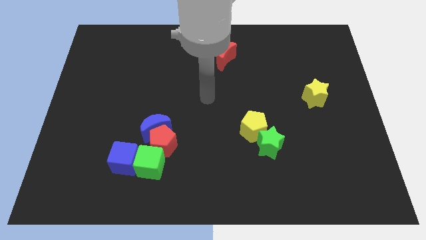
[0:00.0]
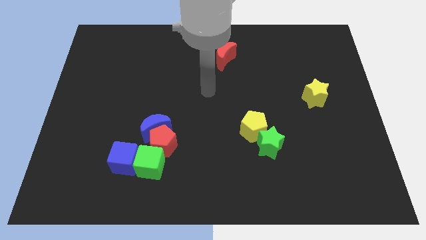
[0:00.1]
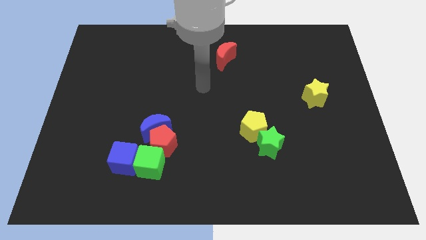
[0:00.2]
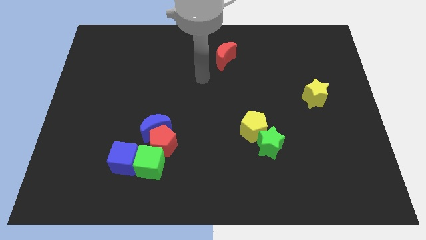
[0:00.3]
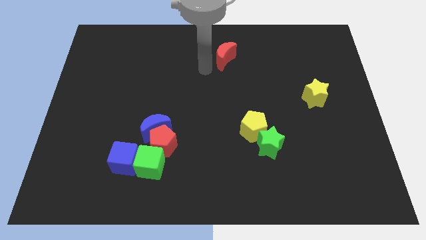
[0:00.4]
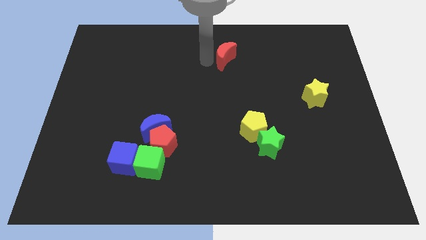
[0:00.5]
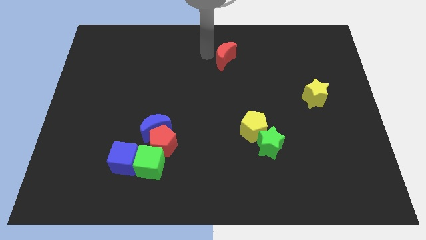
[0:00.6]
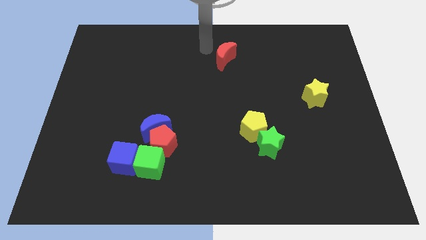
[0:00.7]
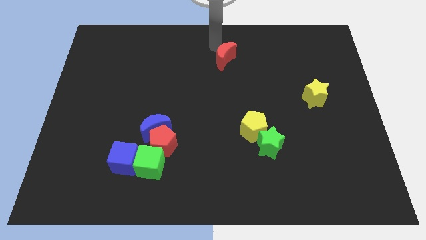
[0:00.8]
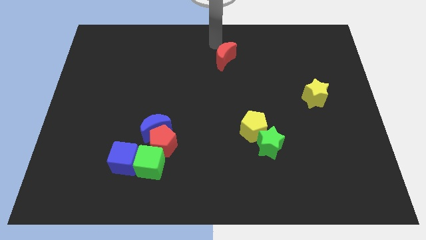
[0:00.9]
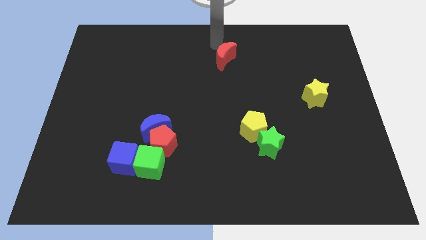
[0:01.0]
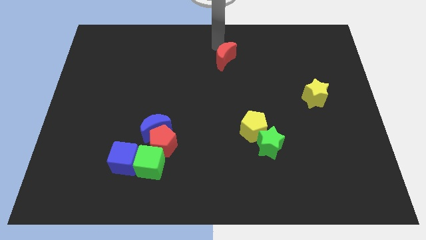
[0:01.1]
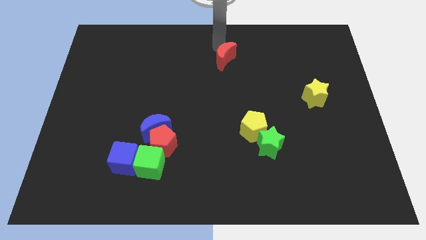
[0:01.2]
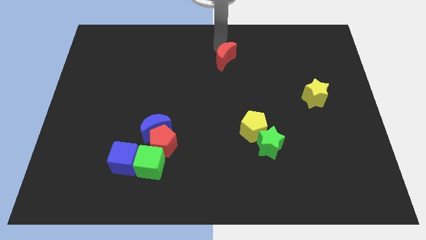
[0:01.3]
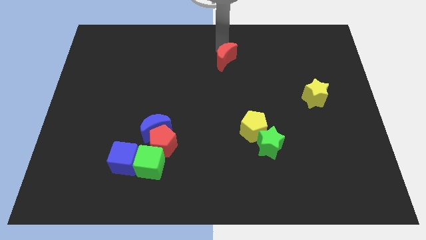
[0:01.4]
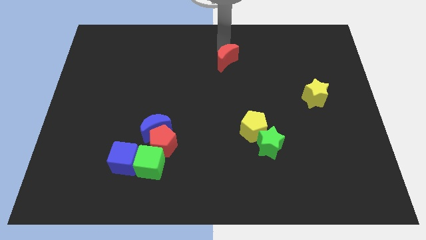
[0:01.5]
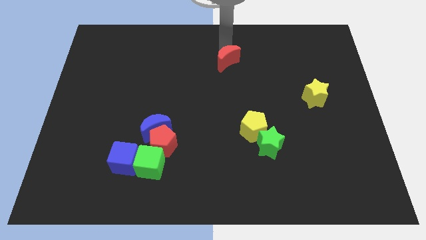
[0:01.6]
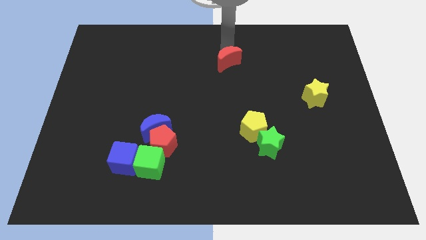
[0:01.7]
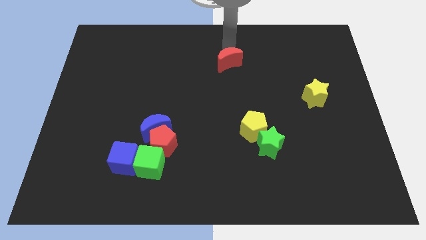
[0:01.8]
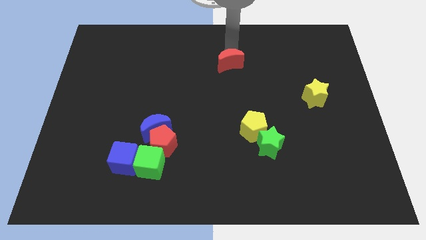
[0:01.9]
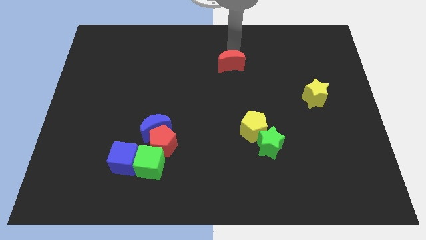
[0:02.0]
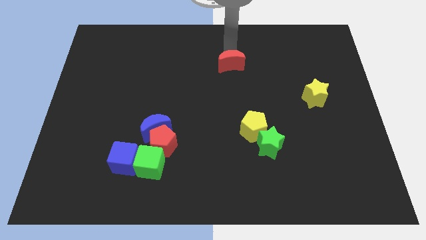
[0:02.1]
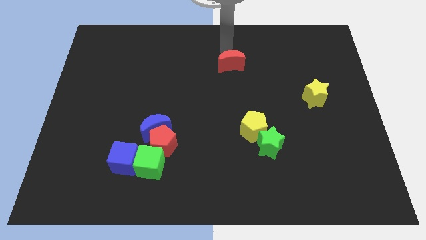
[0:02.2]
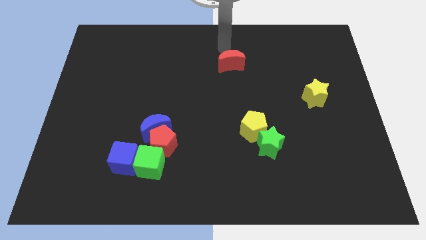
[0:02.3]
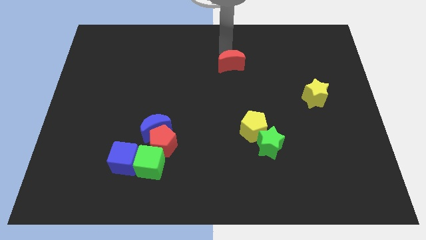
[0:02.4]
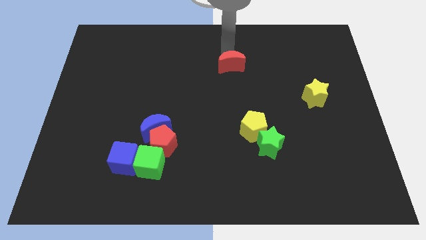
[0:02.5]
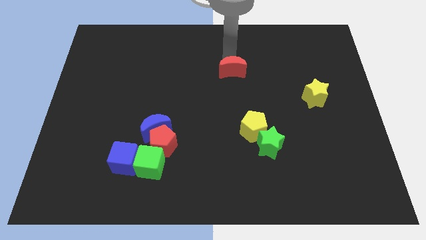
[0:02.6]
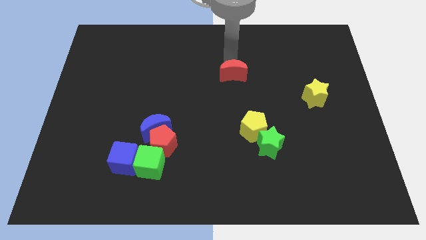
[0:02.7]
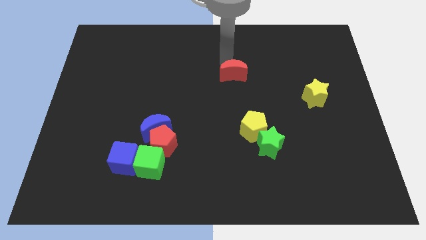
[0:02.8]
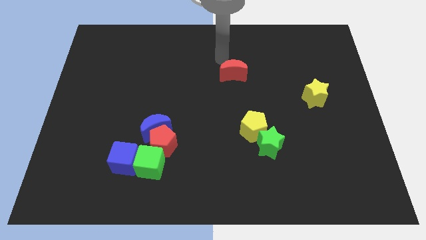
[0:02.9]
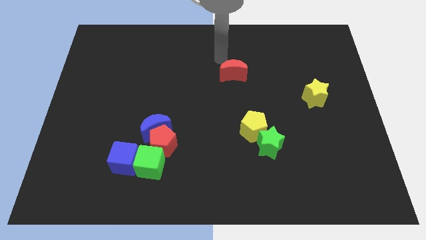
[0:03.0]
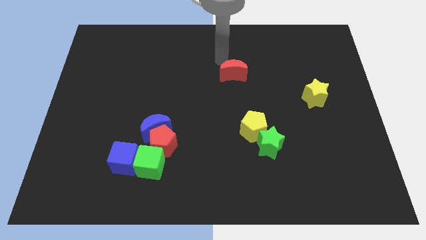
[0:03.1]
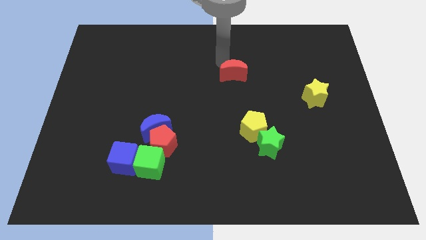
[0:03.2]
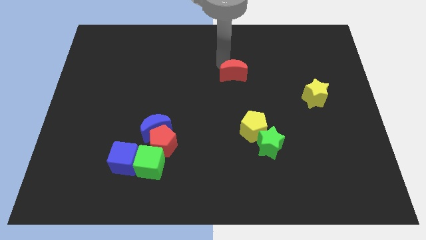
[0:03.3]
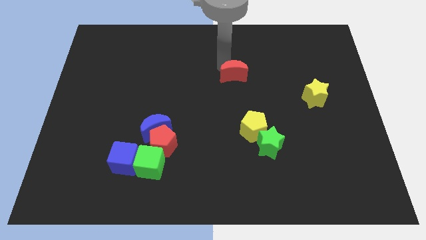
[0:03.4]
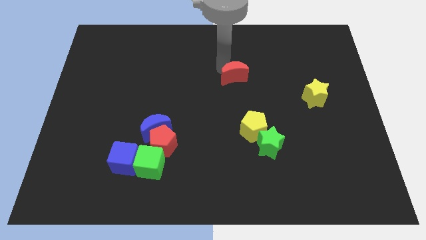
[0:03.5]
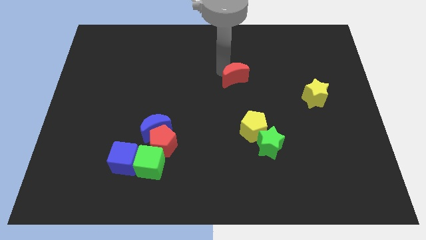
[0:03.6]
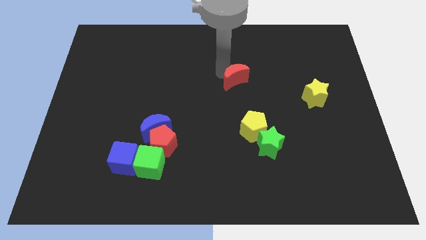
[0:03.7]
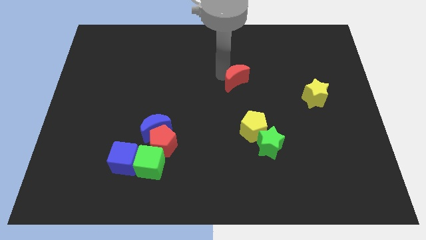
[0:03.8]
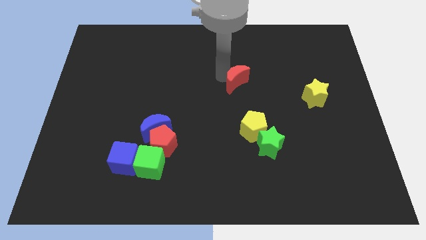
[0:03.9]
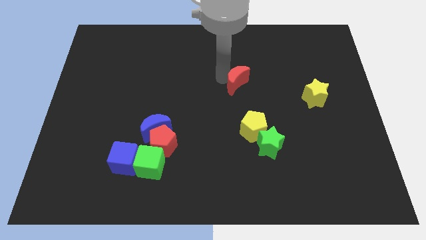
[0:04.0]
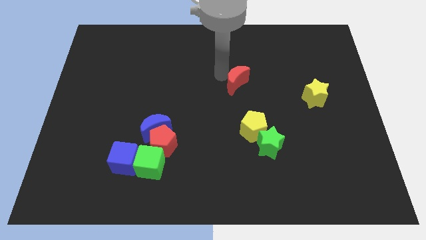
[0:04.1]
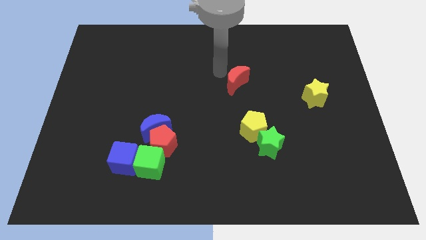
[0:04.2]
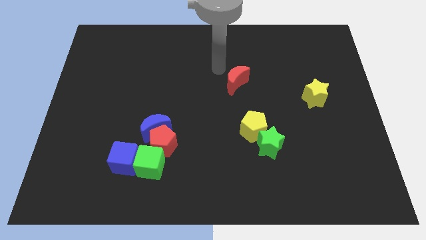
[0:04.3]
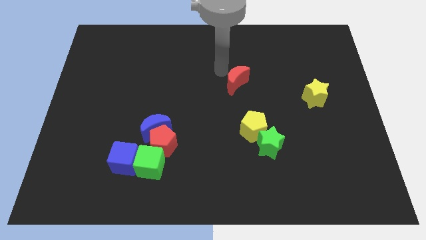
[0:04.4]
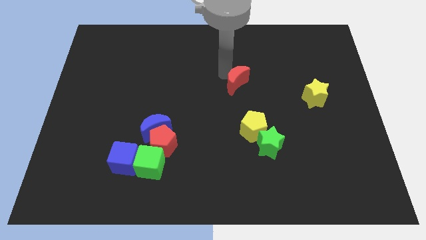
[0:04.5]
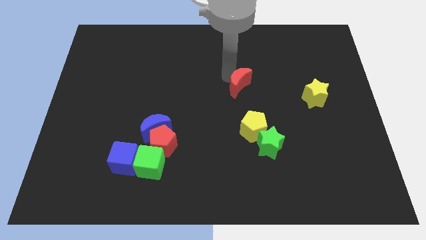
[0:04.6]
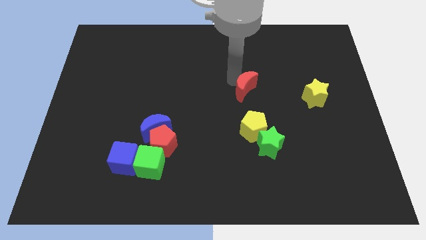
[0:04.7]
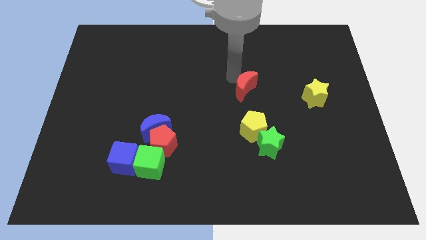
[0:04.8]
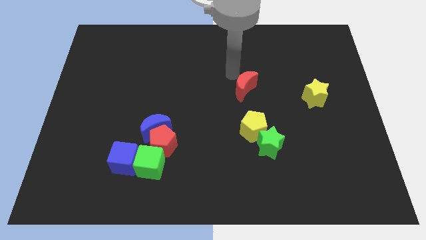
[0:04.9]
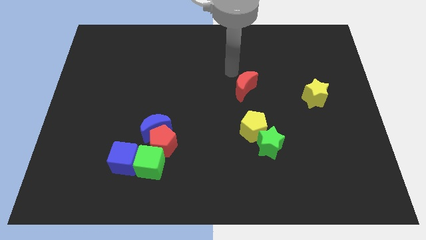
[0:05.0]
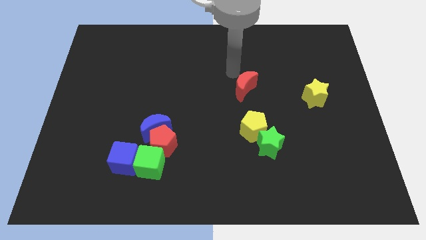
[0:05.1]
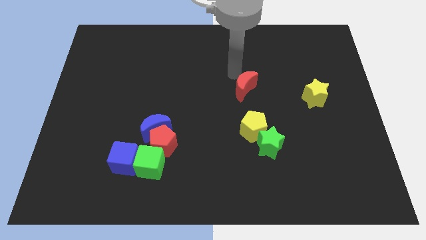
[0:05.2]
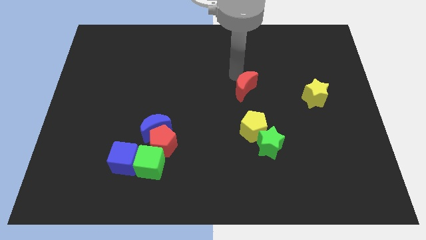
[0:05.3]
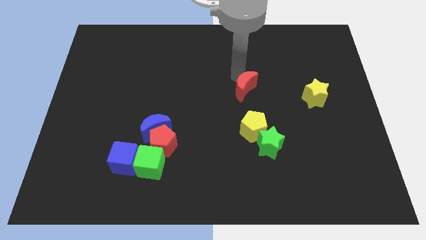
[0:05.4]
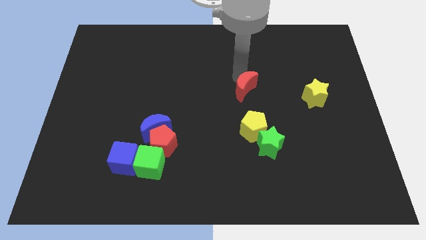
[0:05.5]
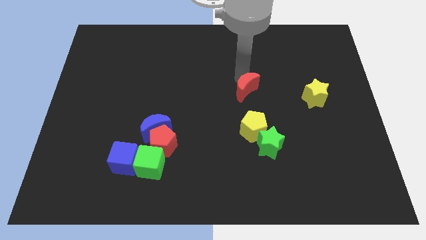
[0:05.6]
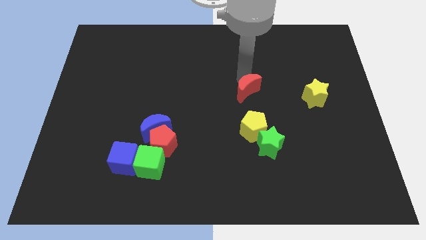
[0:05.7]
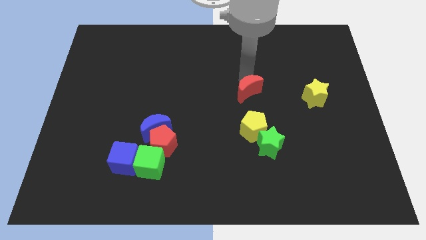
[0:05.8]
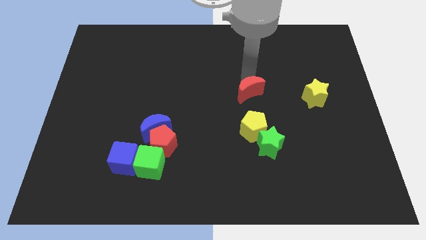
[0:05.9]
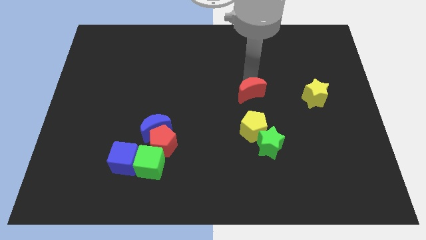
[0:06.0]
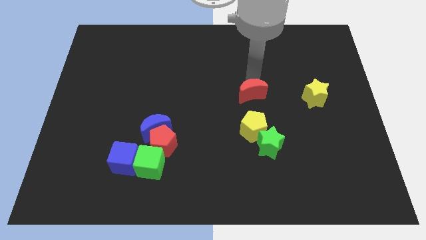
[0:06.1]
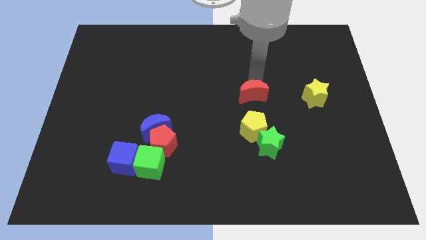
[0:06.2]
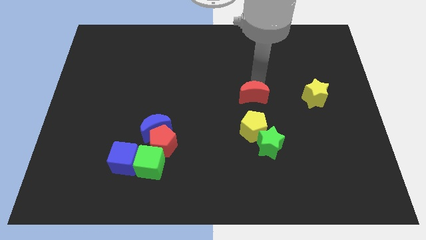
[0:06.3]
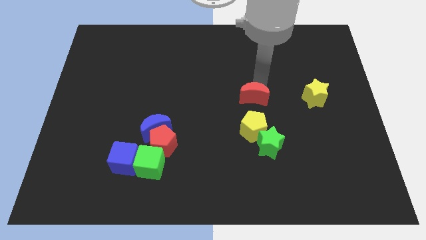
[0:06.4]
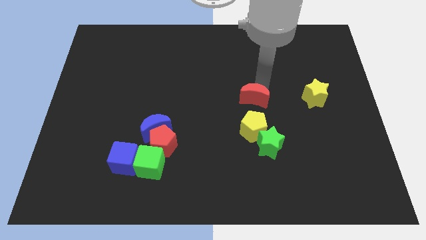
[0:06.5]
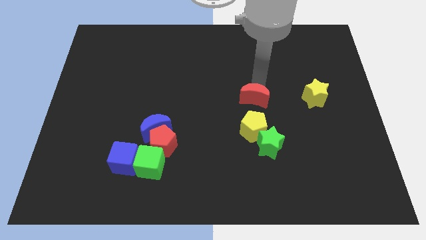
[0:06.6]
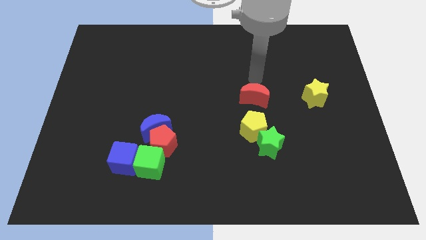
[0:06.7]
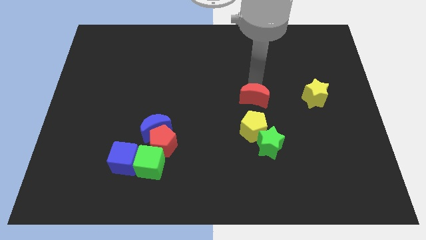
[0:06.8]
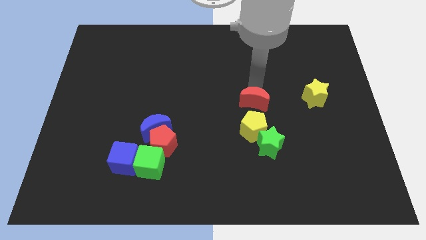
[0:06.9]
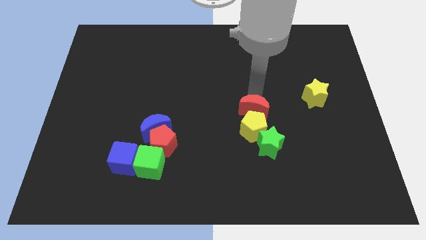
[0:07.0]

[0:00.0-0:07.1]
move the red moon towards the yellow pentagon

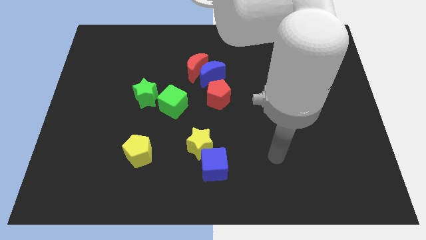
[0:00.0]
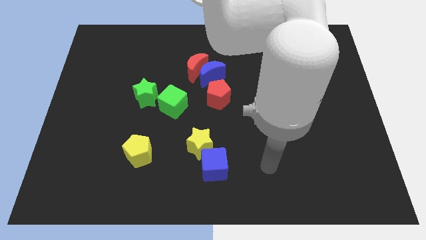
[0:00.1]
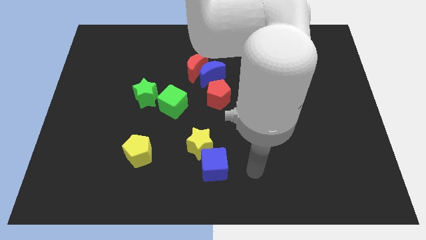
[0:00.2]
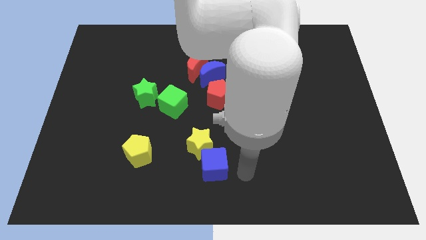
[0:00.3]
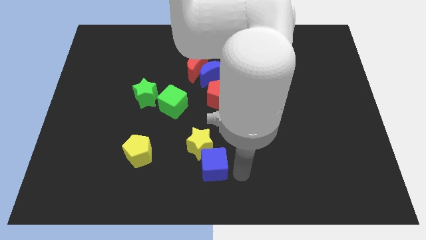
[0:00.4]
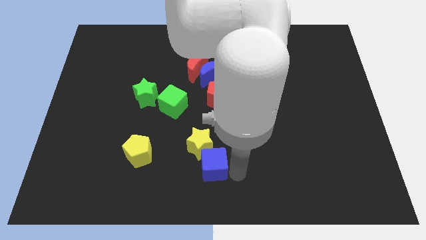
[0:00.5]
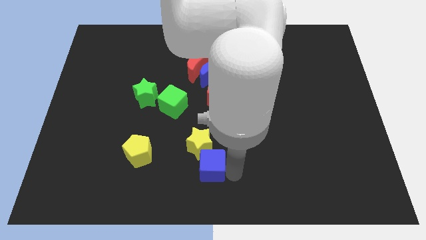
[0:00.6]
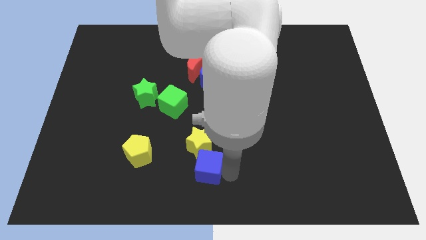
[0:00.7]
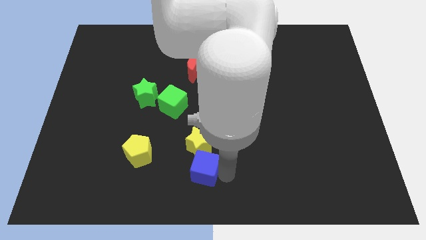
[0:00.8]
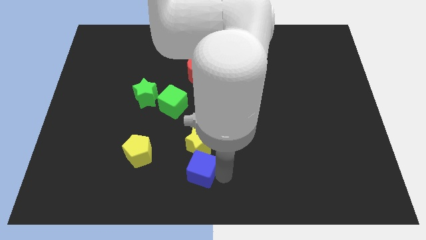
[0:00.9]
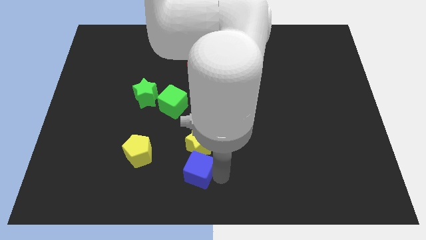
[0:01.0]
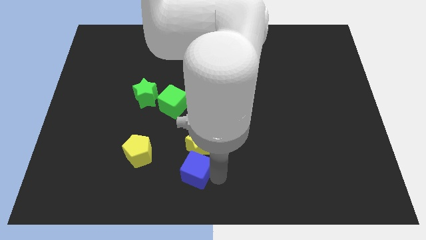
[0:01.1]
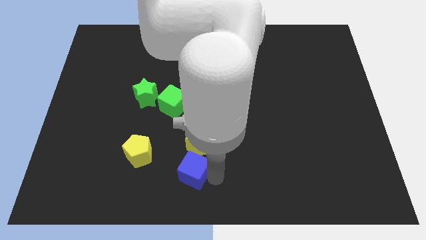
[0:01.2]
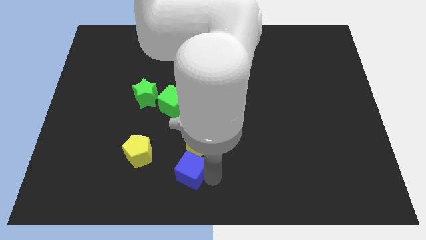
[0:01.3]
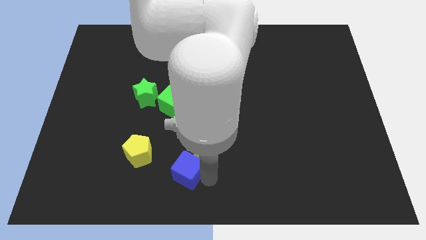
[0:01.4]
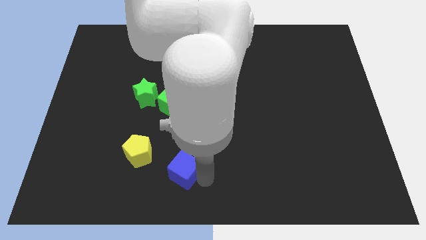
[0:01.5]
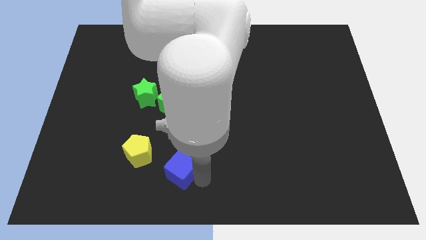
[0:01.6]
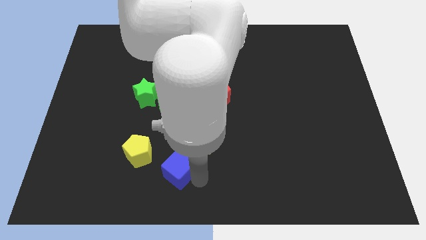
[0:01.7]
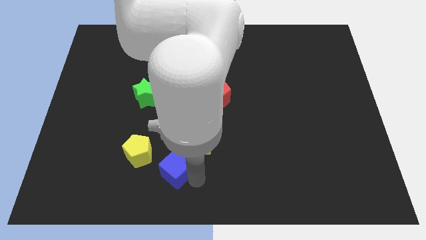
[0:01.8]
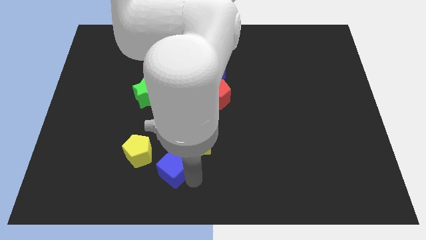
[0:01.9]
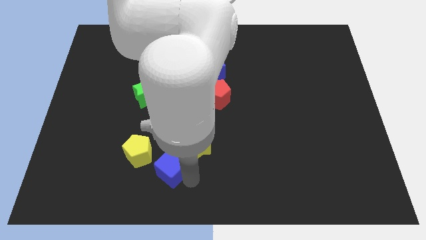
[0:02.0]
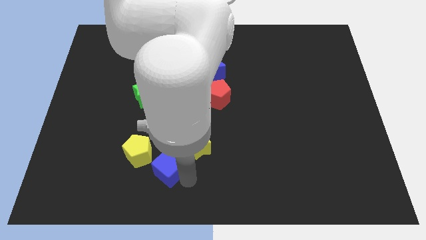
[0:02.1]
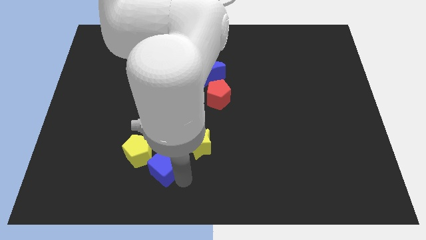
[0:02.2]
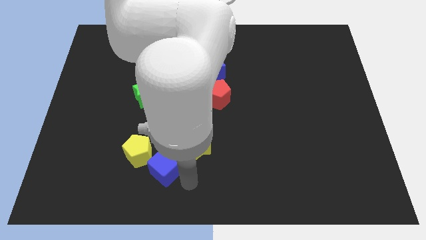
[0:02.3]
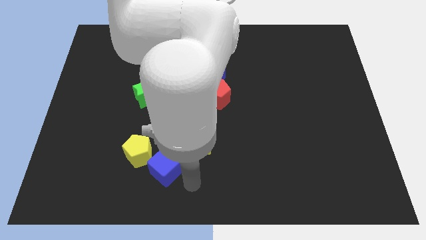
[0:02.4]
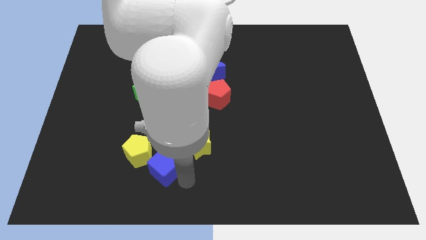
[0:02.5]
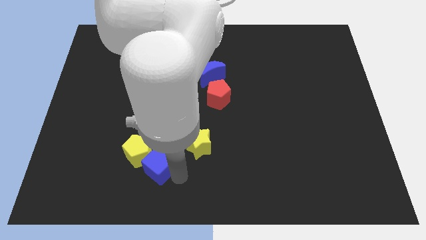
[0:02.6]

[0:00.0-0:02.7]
slide the blue cube next to the yellow pentagon
